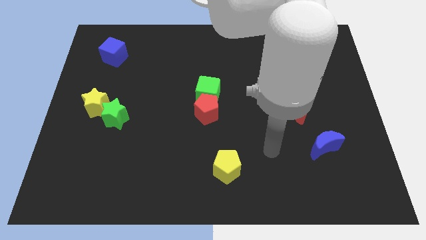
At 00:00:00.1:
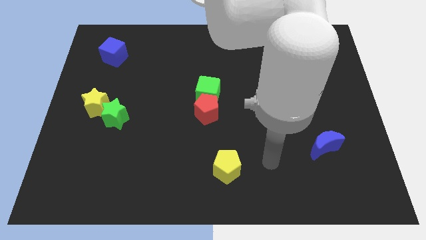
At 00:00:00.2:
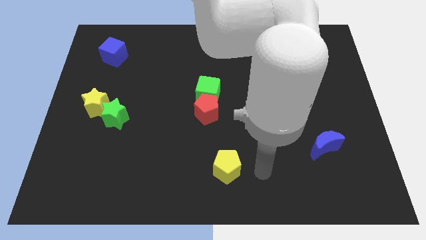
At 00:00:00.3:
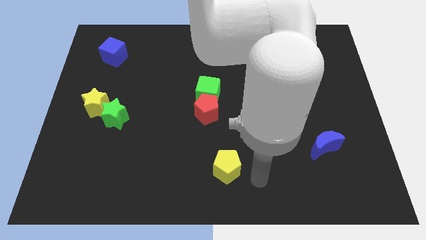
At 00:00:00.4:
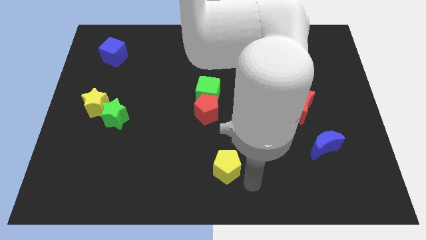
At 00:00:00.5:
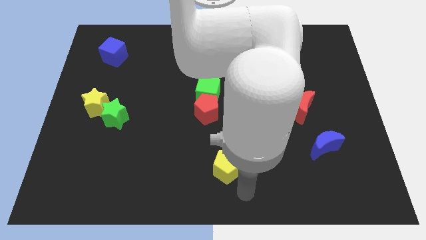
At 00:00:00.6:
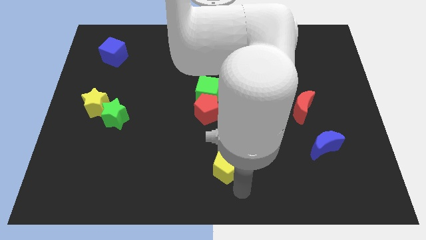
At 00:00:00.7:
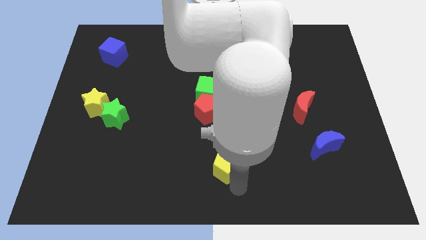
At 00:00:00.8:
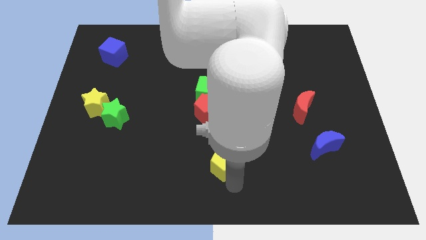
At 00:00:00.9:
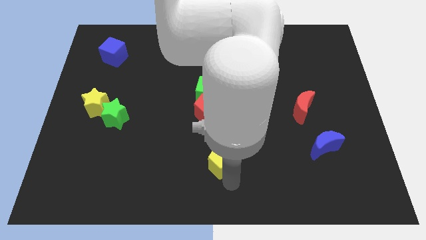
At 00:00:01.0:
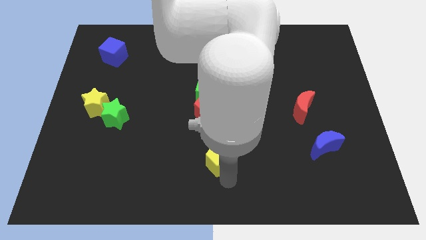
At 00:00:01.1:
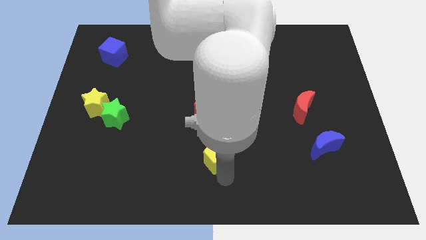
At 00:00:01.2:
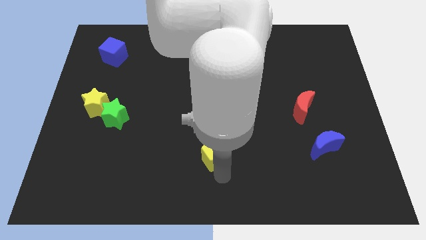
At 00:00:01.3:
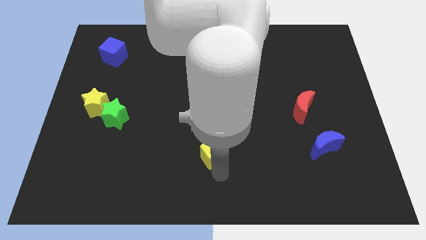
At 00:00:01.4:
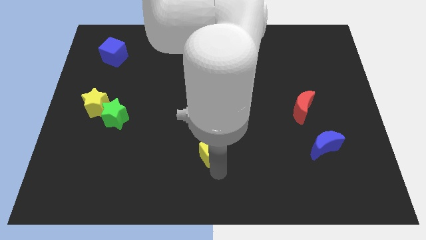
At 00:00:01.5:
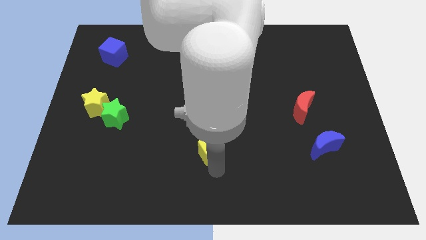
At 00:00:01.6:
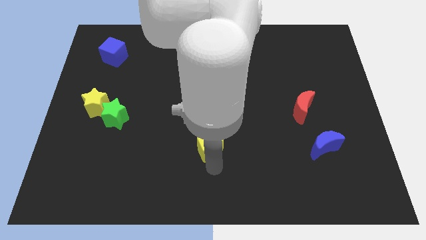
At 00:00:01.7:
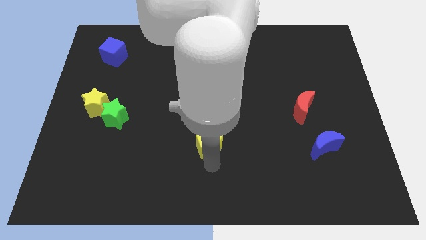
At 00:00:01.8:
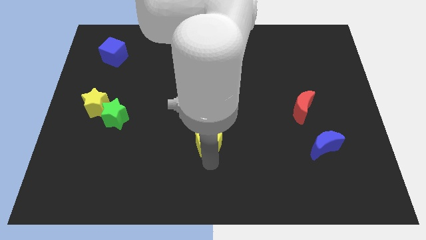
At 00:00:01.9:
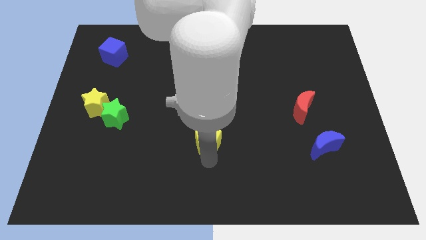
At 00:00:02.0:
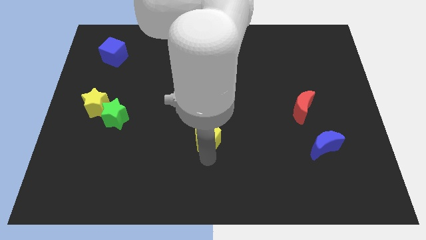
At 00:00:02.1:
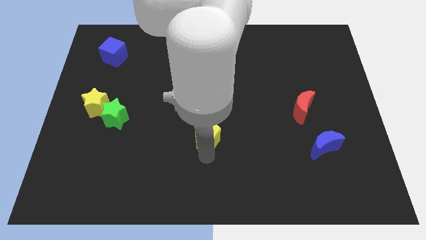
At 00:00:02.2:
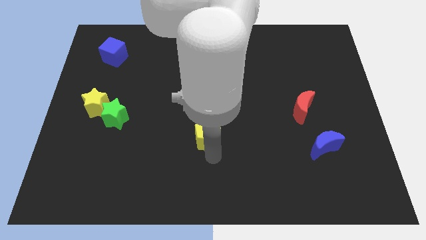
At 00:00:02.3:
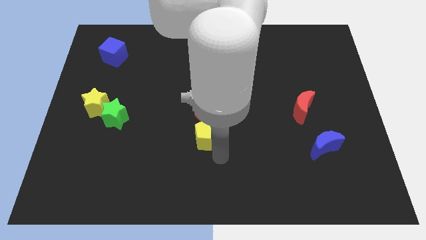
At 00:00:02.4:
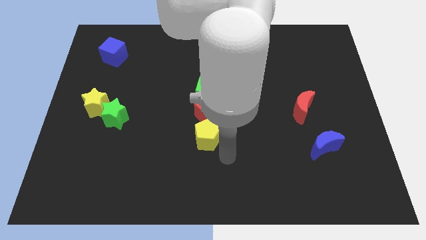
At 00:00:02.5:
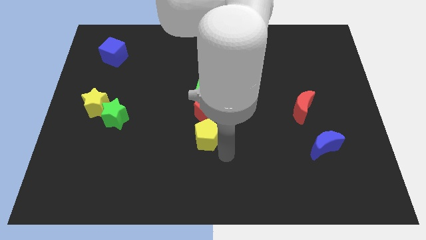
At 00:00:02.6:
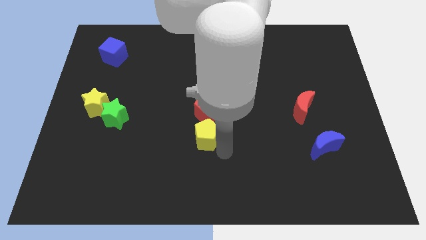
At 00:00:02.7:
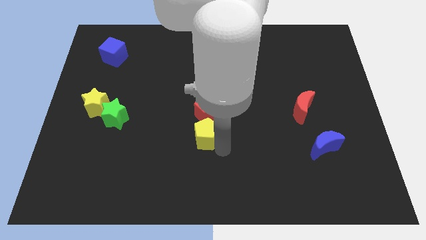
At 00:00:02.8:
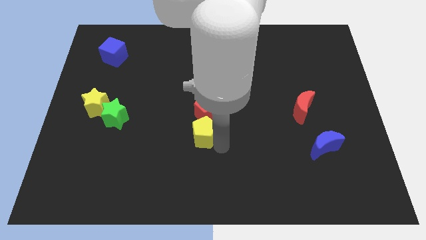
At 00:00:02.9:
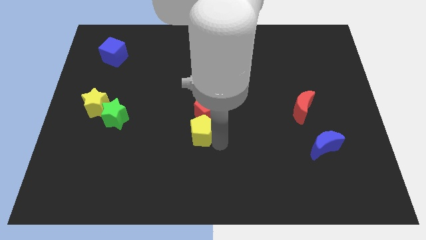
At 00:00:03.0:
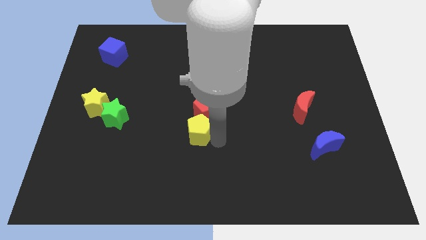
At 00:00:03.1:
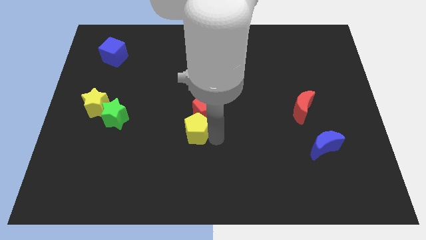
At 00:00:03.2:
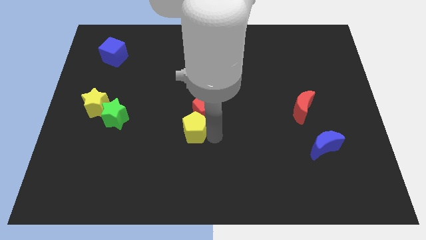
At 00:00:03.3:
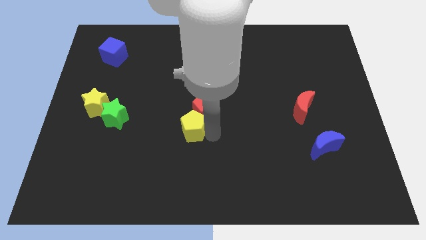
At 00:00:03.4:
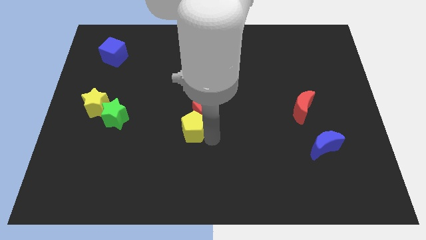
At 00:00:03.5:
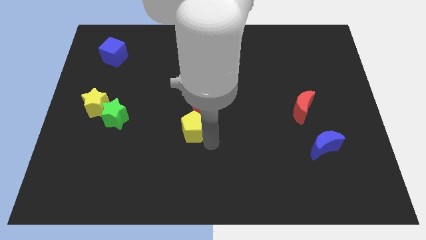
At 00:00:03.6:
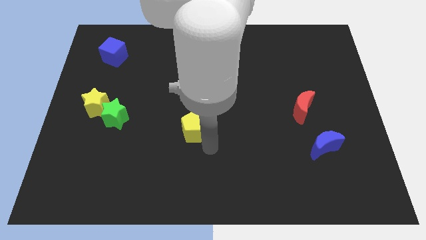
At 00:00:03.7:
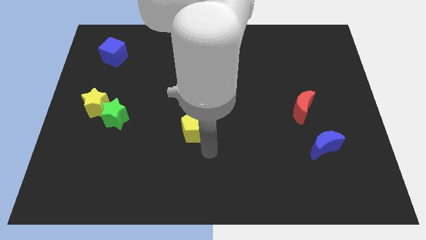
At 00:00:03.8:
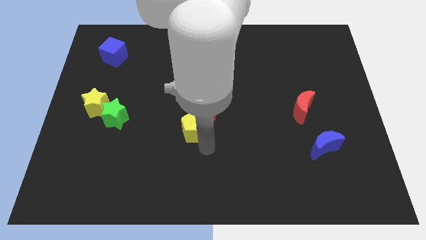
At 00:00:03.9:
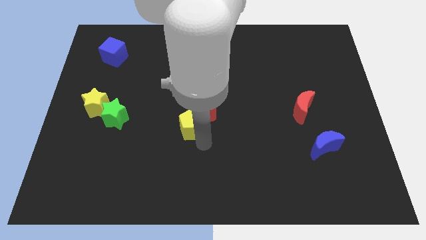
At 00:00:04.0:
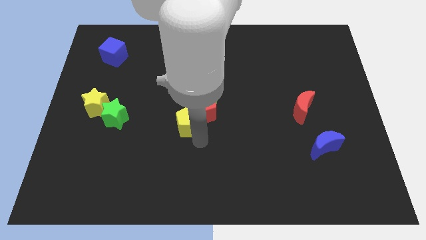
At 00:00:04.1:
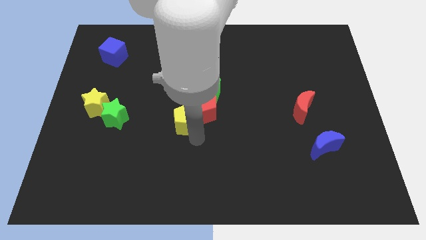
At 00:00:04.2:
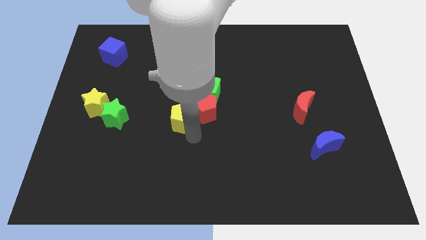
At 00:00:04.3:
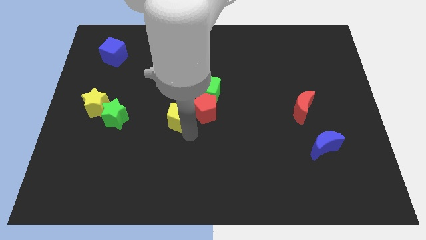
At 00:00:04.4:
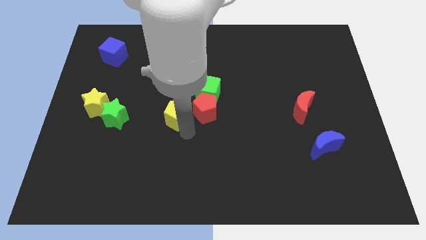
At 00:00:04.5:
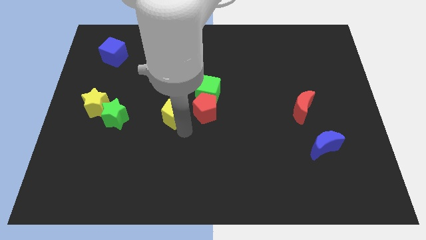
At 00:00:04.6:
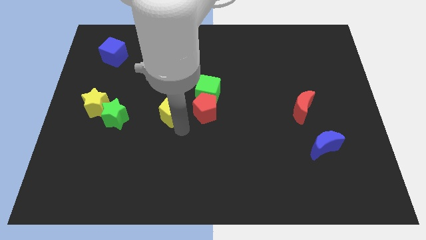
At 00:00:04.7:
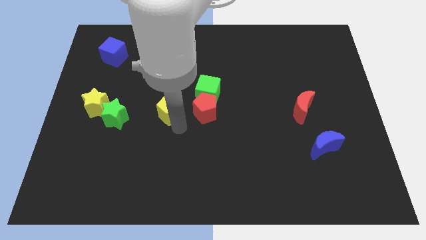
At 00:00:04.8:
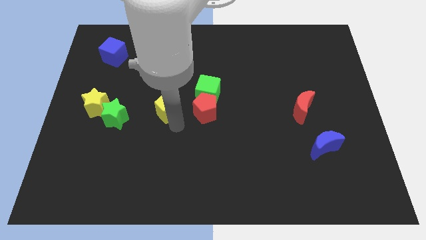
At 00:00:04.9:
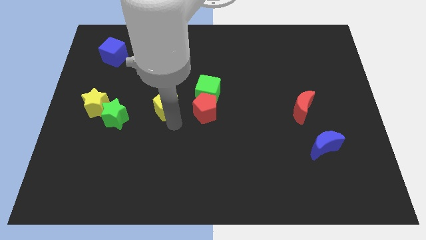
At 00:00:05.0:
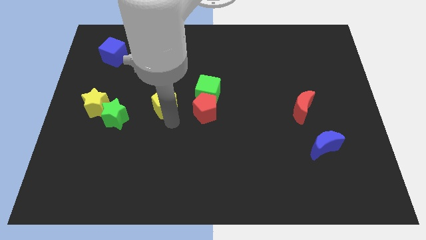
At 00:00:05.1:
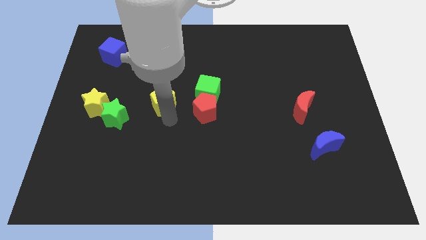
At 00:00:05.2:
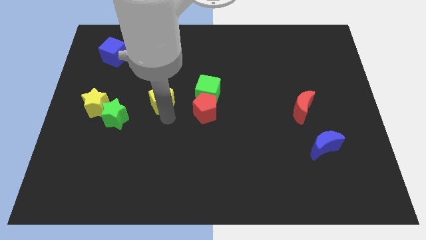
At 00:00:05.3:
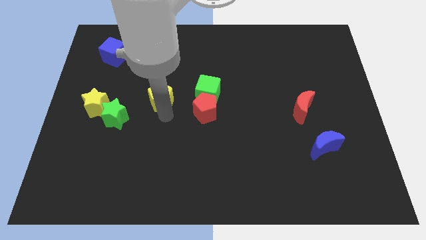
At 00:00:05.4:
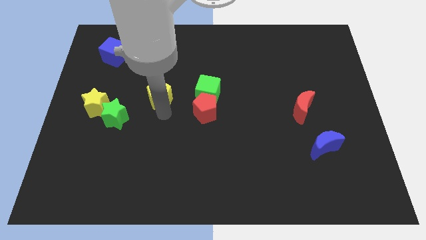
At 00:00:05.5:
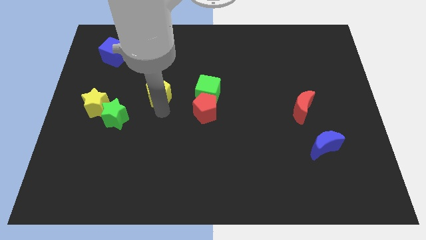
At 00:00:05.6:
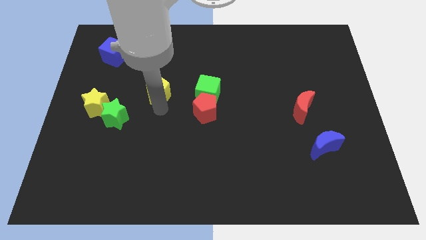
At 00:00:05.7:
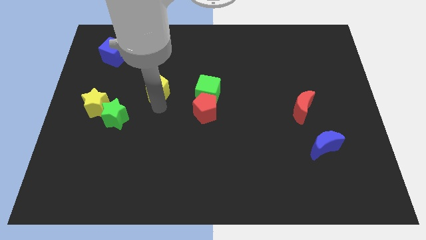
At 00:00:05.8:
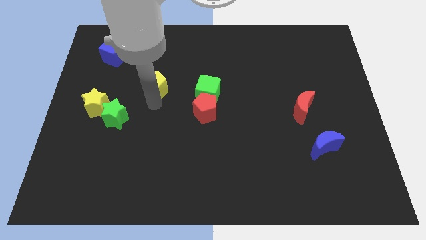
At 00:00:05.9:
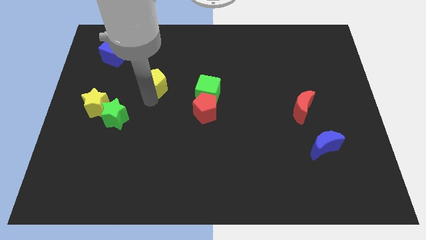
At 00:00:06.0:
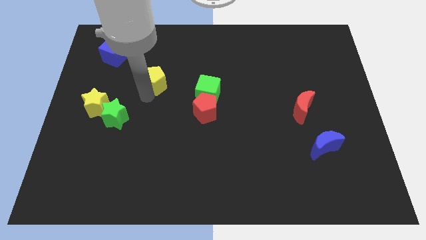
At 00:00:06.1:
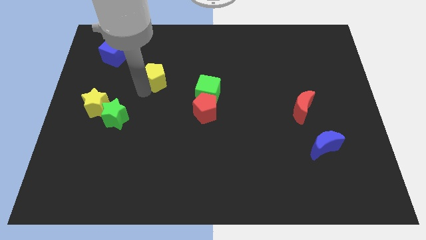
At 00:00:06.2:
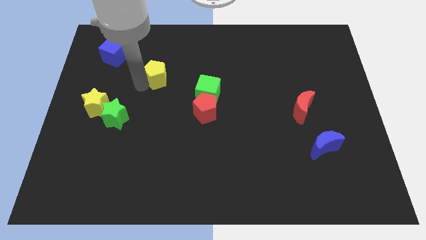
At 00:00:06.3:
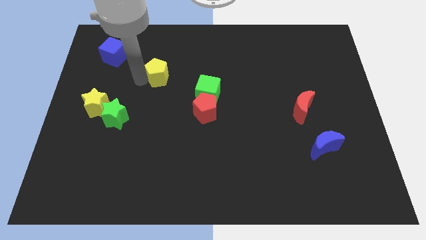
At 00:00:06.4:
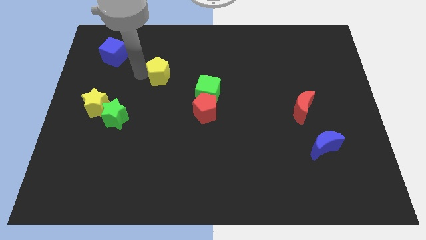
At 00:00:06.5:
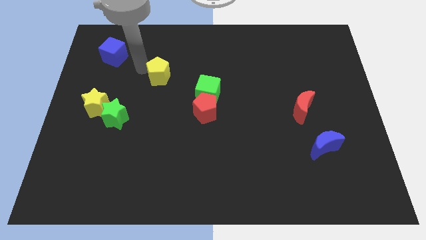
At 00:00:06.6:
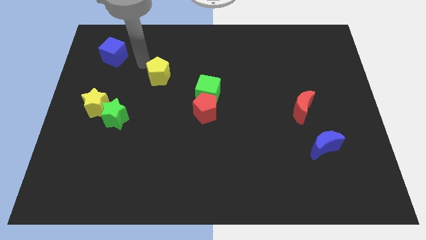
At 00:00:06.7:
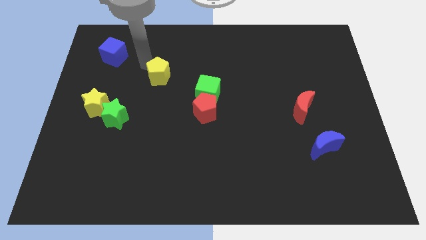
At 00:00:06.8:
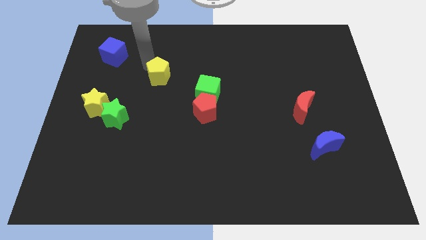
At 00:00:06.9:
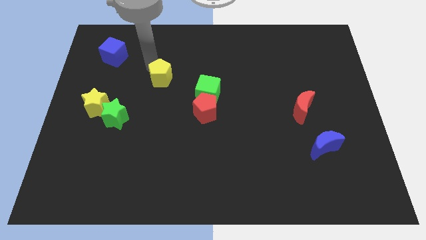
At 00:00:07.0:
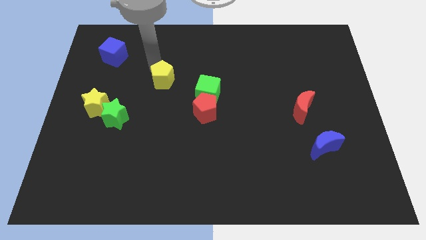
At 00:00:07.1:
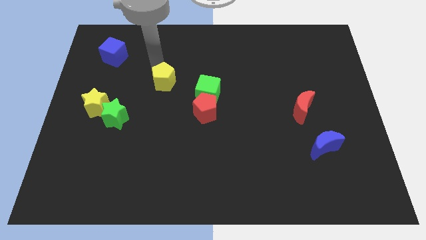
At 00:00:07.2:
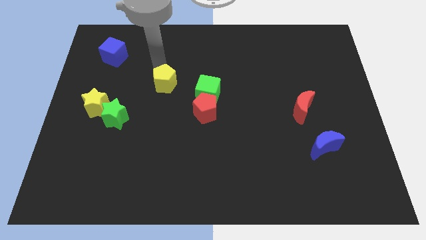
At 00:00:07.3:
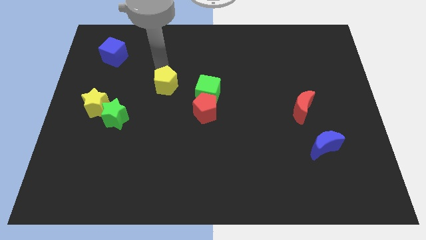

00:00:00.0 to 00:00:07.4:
move the yellow pentagon to the top left side of the red pentagon
